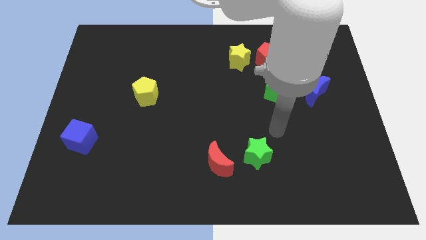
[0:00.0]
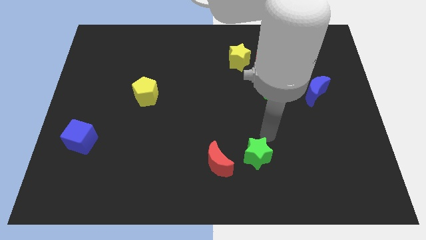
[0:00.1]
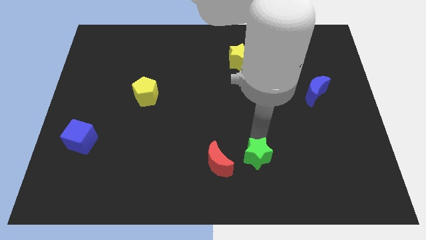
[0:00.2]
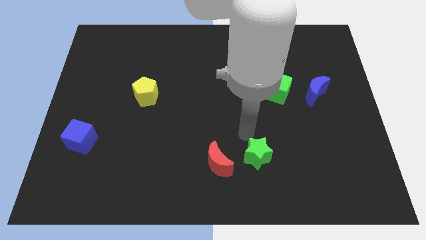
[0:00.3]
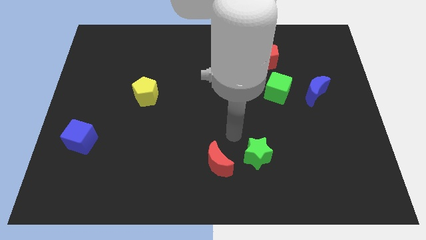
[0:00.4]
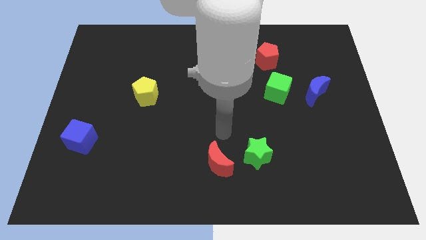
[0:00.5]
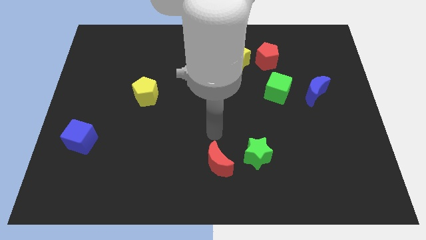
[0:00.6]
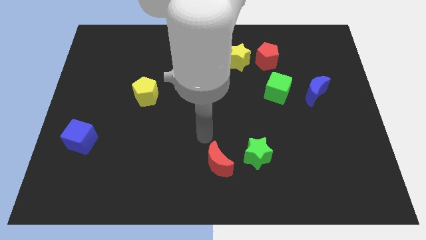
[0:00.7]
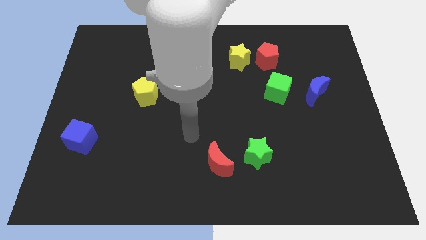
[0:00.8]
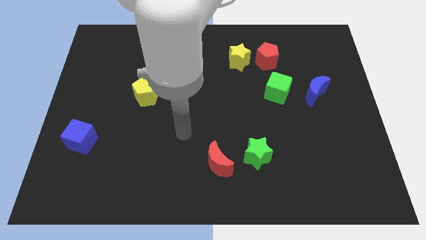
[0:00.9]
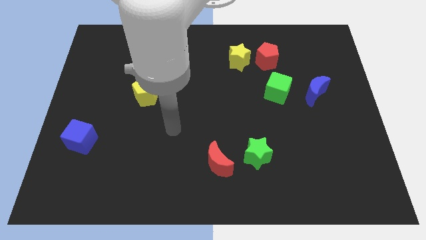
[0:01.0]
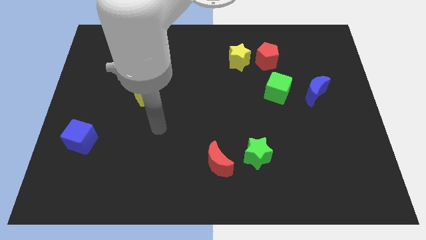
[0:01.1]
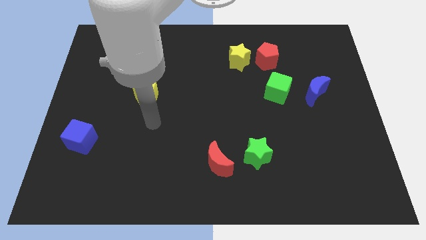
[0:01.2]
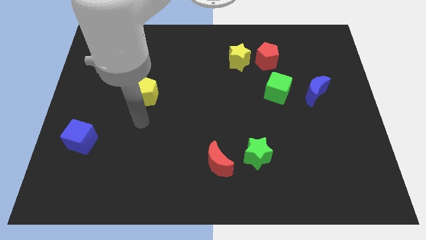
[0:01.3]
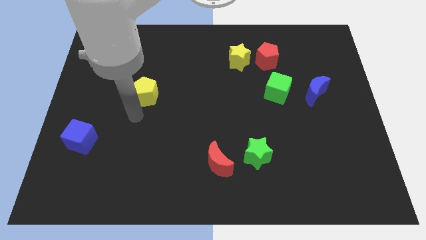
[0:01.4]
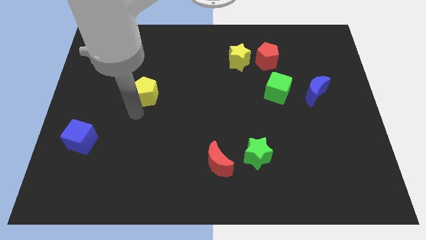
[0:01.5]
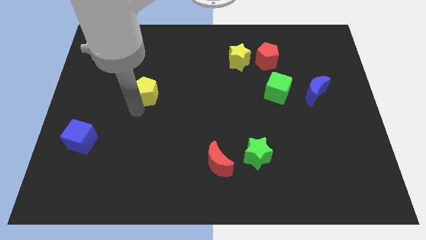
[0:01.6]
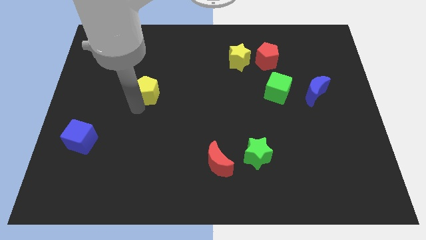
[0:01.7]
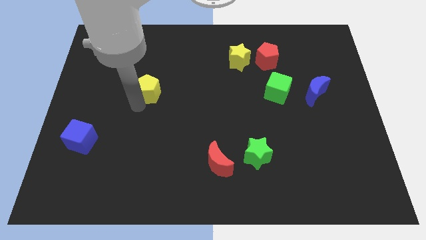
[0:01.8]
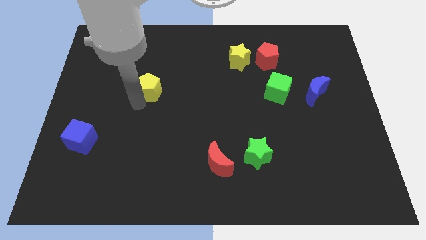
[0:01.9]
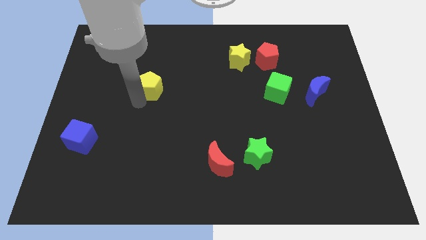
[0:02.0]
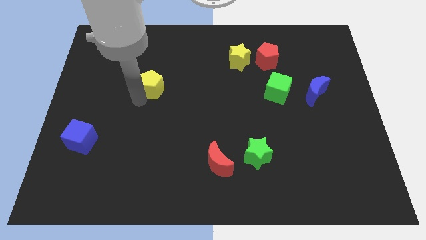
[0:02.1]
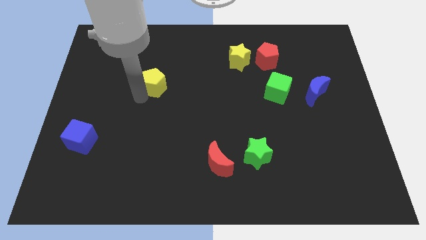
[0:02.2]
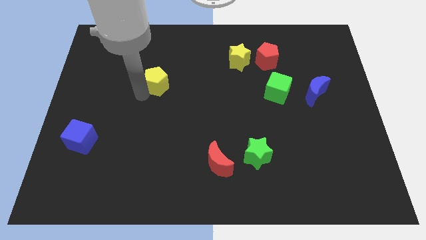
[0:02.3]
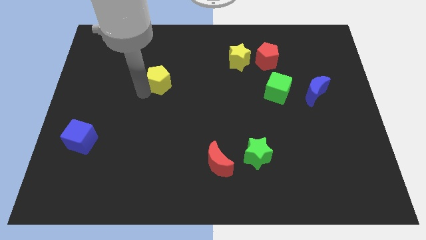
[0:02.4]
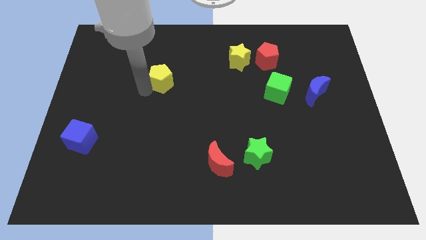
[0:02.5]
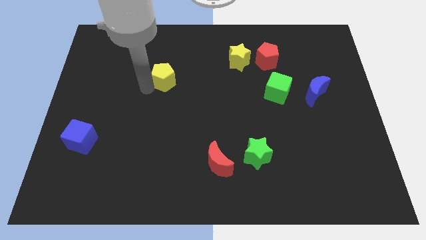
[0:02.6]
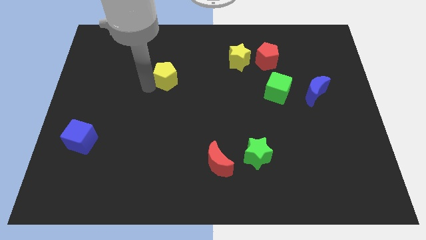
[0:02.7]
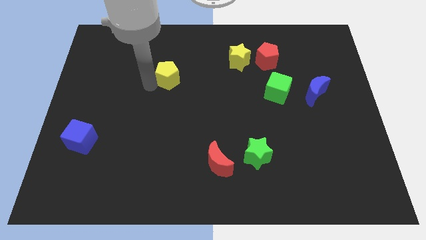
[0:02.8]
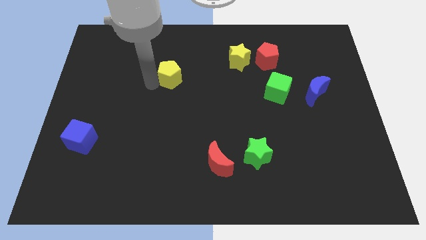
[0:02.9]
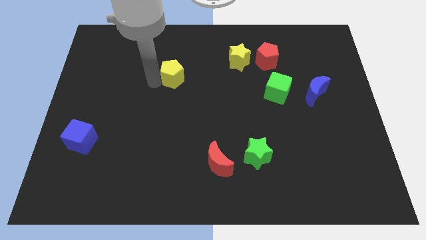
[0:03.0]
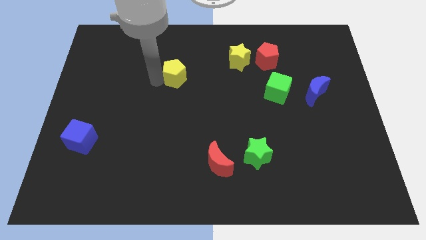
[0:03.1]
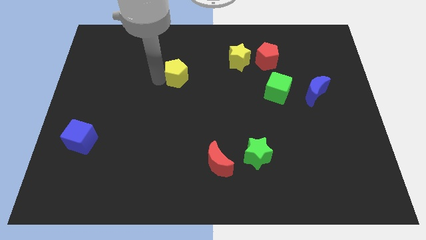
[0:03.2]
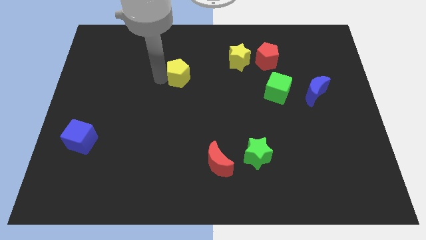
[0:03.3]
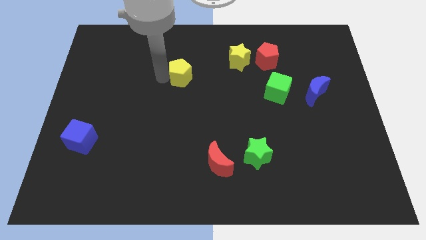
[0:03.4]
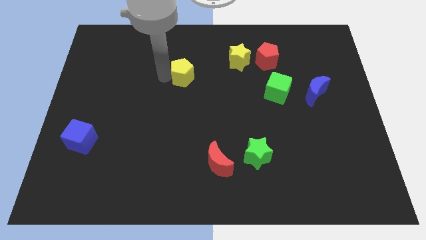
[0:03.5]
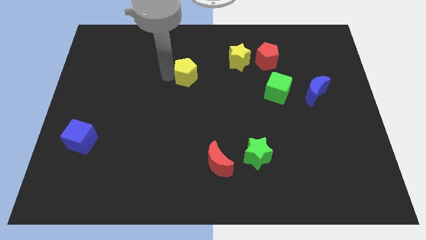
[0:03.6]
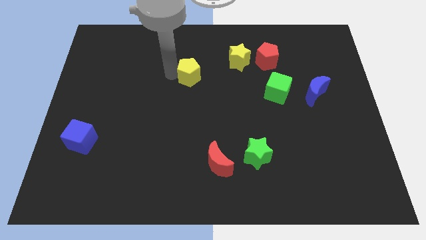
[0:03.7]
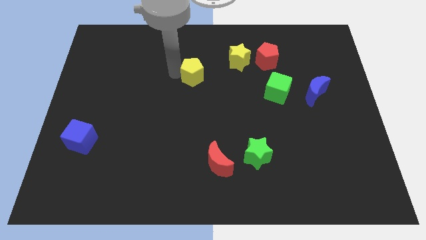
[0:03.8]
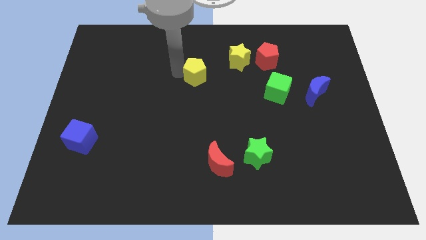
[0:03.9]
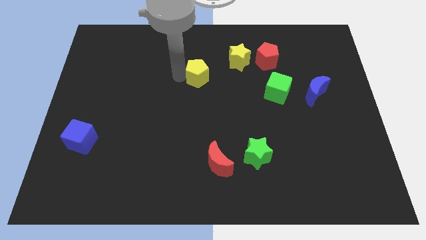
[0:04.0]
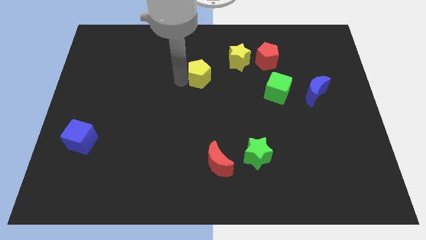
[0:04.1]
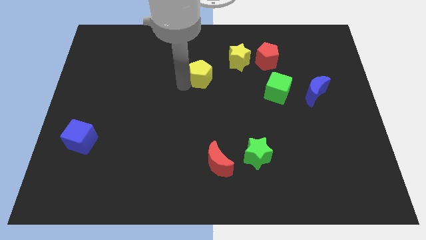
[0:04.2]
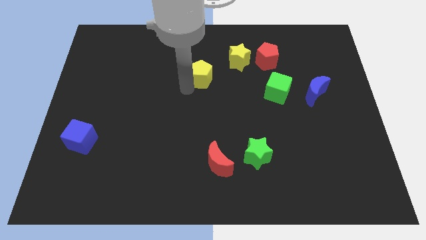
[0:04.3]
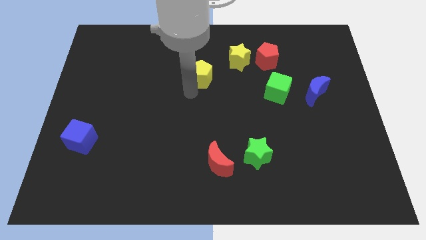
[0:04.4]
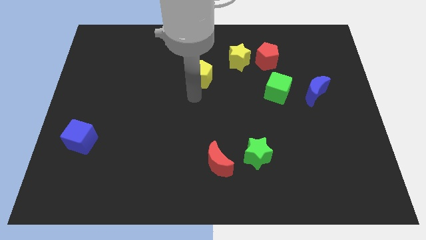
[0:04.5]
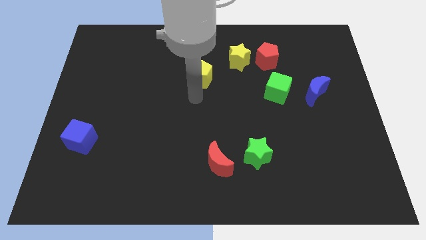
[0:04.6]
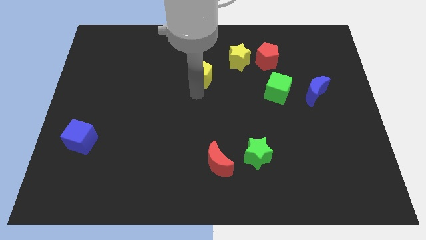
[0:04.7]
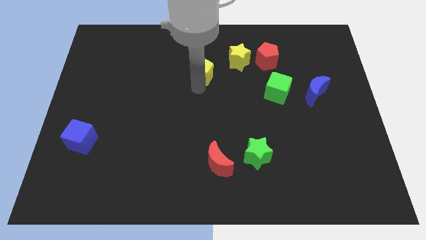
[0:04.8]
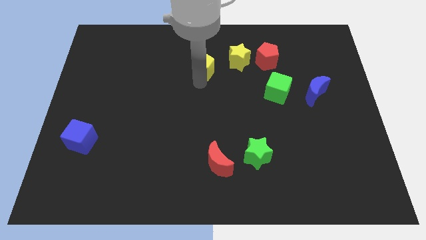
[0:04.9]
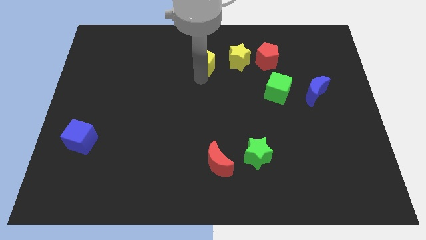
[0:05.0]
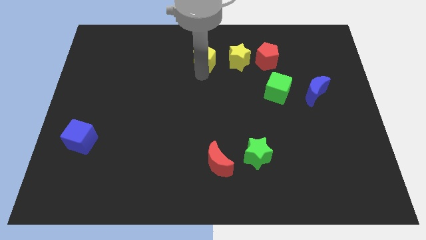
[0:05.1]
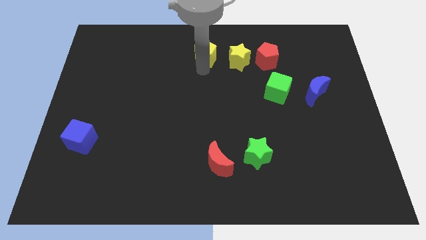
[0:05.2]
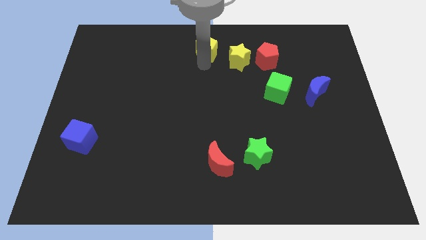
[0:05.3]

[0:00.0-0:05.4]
push the yellow pentagon to the towards your base
